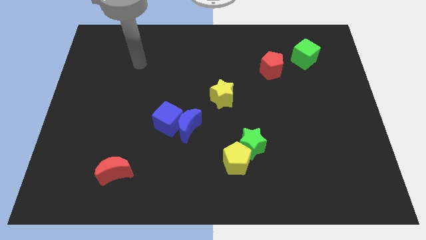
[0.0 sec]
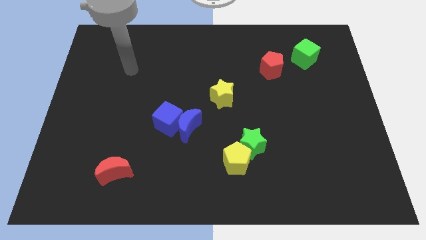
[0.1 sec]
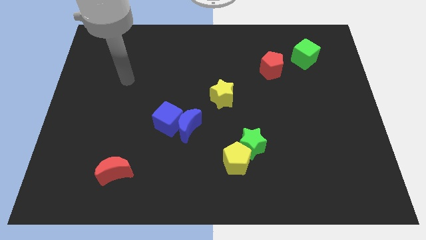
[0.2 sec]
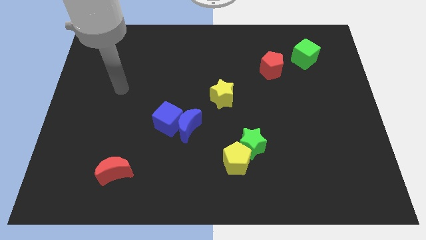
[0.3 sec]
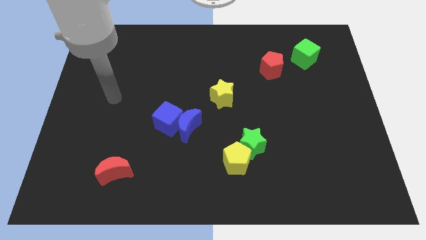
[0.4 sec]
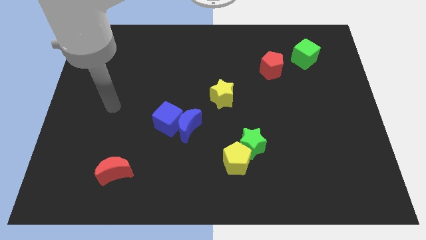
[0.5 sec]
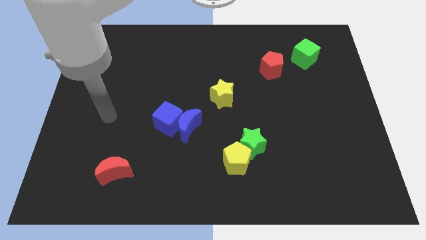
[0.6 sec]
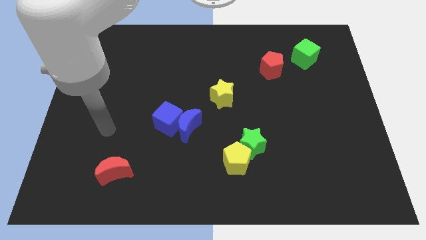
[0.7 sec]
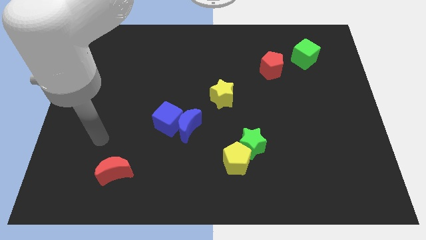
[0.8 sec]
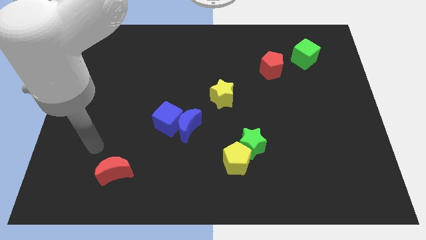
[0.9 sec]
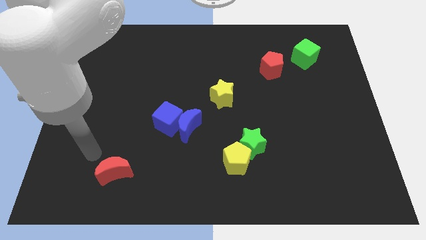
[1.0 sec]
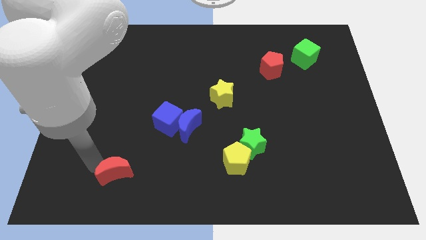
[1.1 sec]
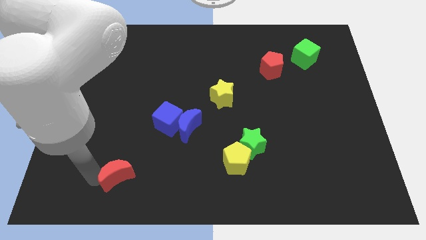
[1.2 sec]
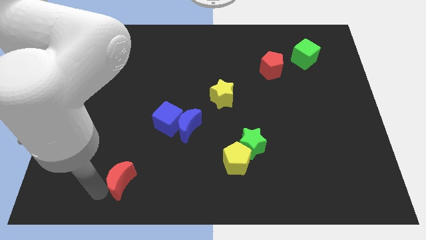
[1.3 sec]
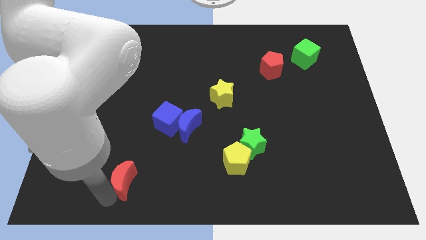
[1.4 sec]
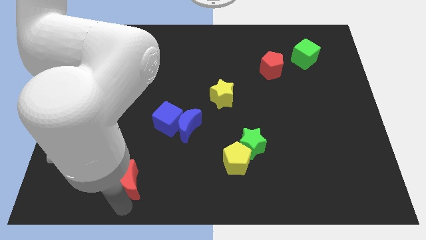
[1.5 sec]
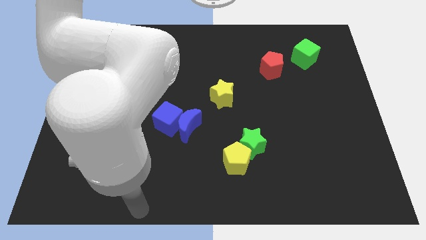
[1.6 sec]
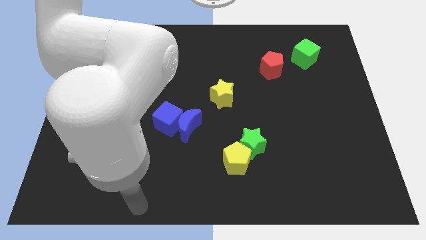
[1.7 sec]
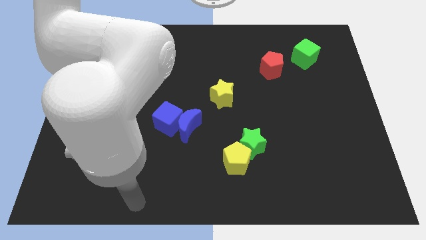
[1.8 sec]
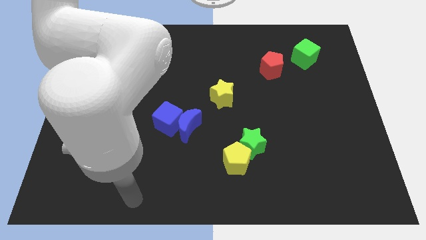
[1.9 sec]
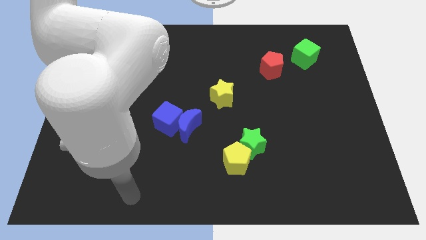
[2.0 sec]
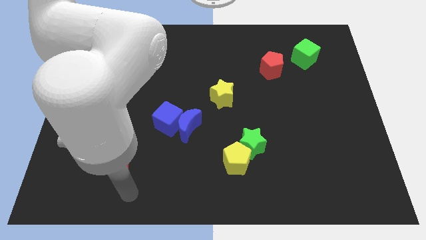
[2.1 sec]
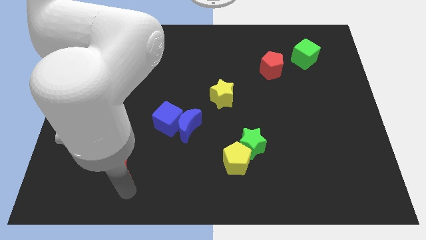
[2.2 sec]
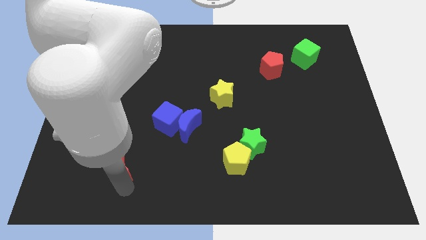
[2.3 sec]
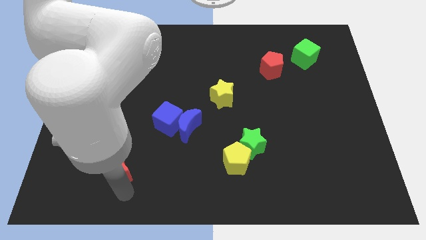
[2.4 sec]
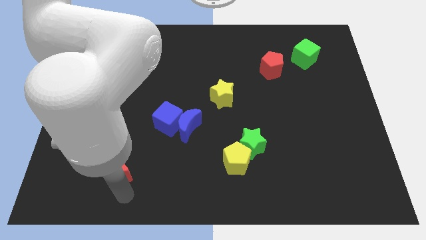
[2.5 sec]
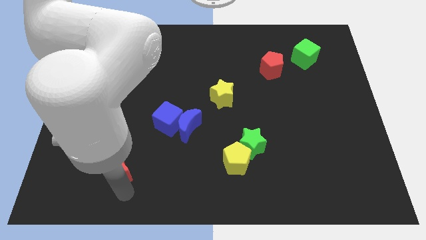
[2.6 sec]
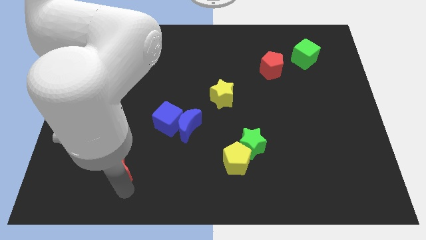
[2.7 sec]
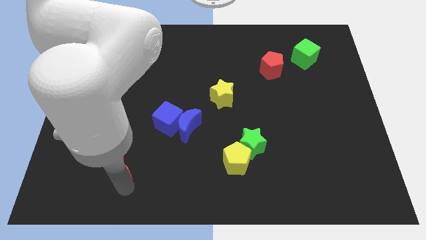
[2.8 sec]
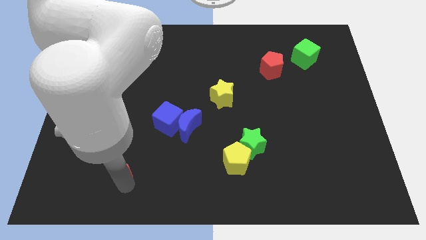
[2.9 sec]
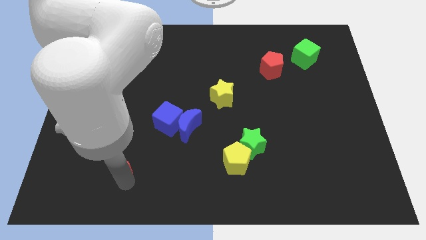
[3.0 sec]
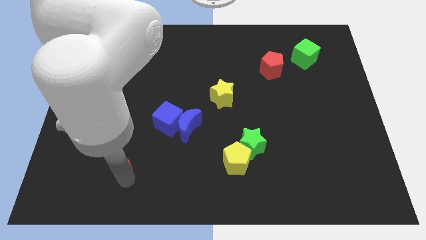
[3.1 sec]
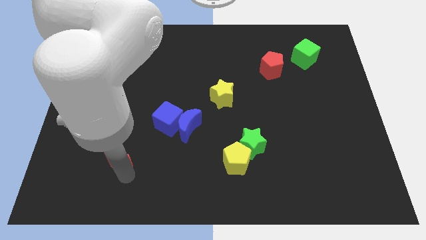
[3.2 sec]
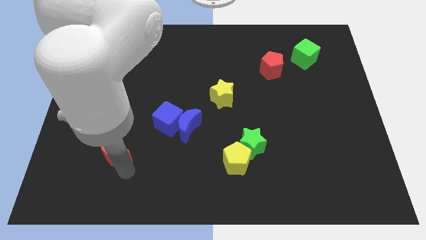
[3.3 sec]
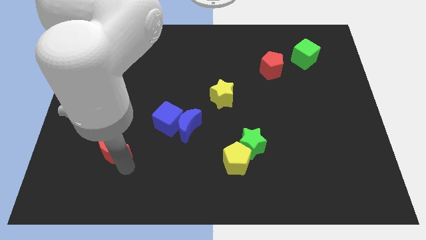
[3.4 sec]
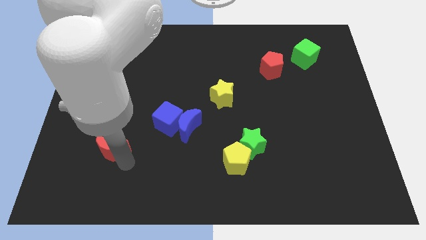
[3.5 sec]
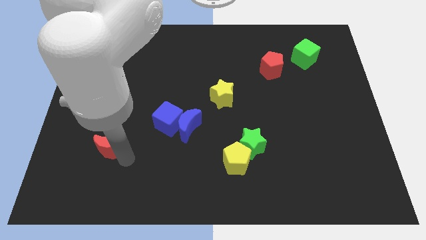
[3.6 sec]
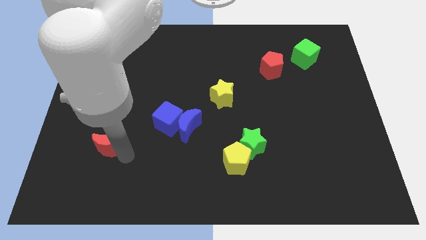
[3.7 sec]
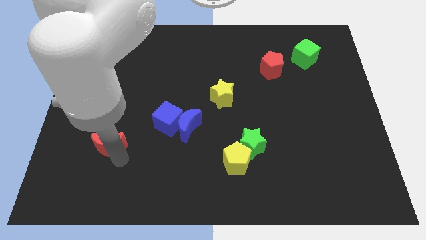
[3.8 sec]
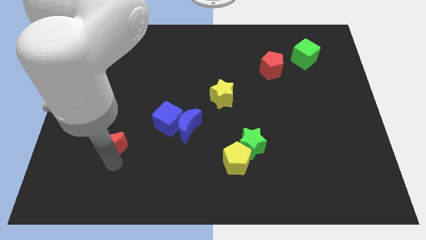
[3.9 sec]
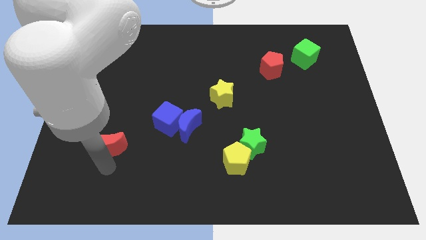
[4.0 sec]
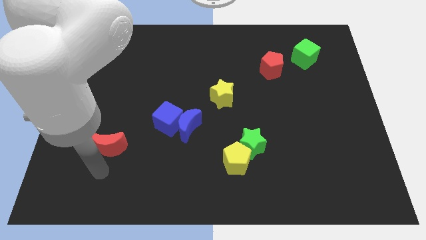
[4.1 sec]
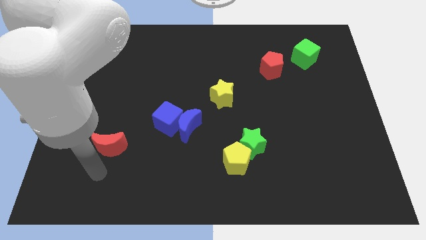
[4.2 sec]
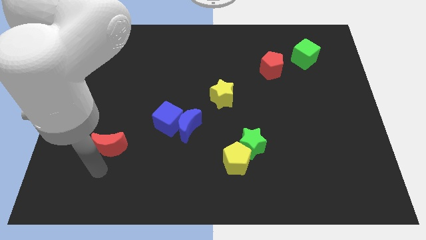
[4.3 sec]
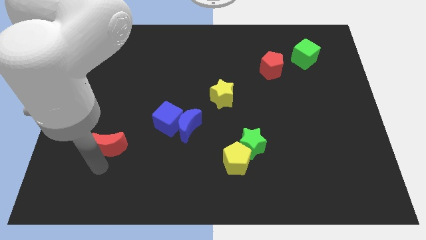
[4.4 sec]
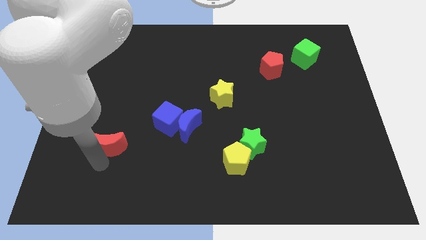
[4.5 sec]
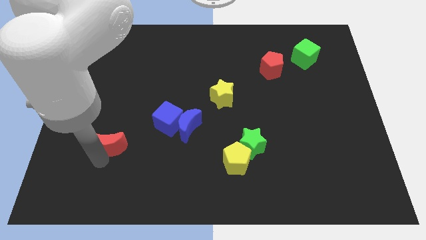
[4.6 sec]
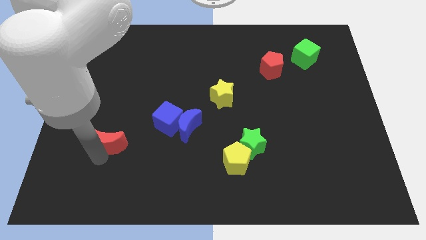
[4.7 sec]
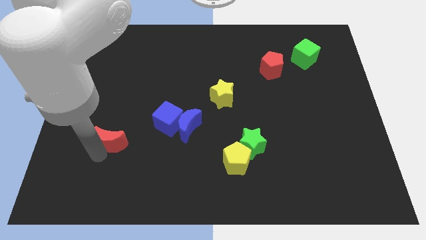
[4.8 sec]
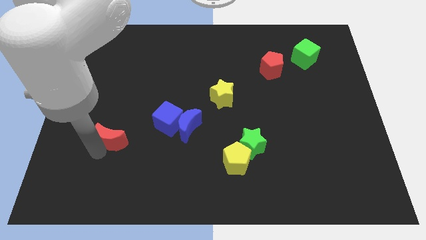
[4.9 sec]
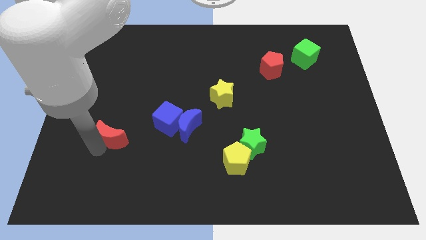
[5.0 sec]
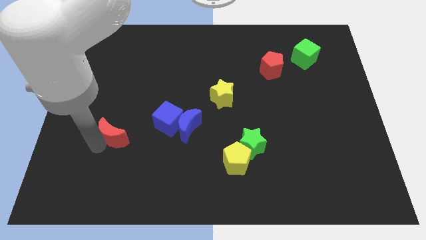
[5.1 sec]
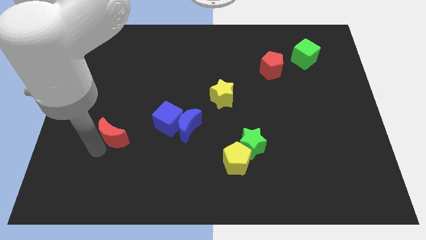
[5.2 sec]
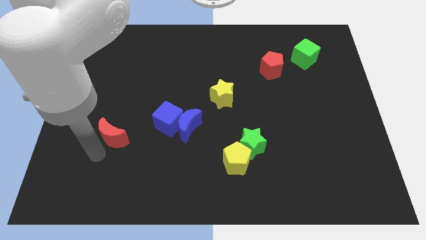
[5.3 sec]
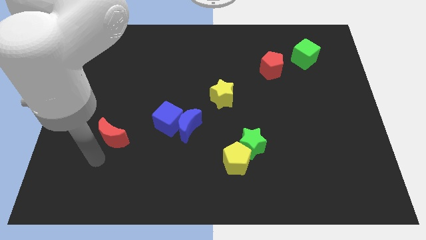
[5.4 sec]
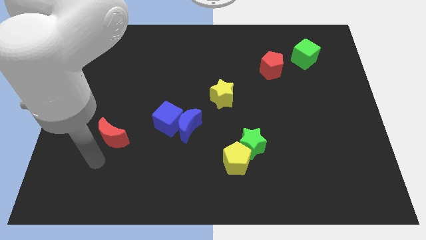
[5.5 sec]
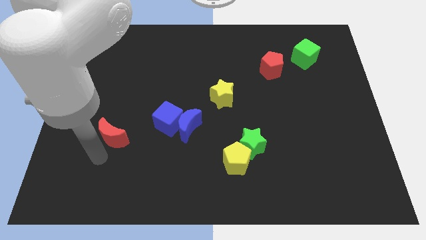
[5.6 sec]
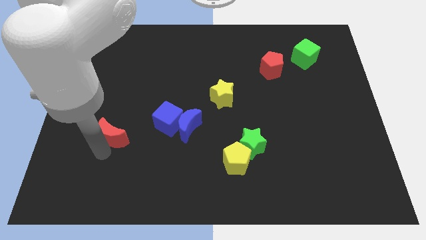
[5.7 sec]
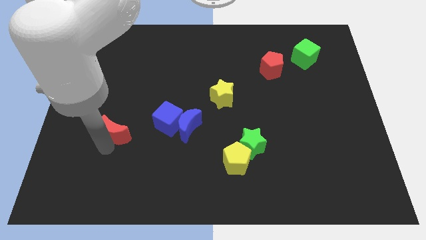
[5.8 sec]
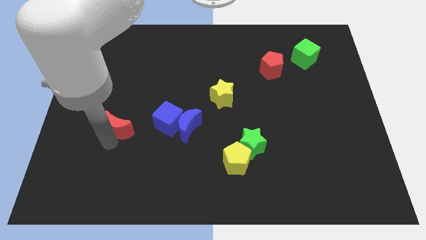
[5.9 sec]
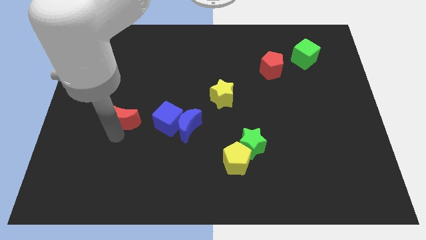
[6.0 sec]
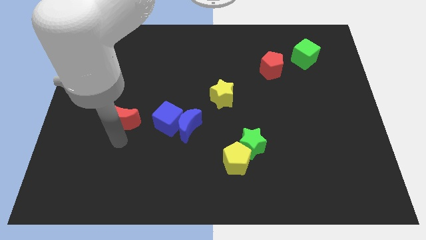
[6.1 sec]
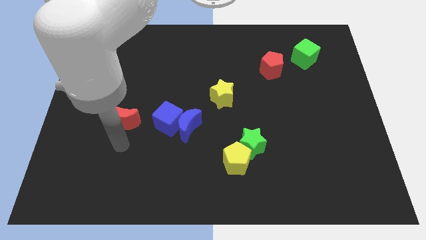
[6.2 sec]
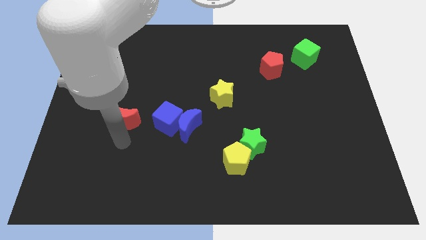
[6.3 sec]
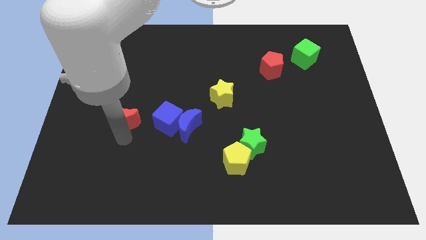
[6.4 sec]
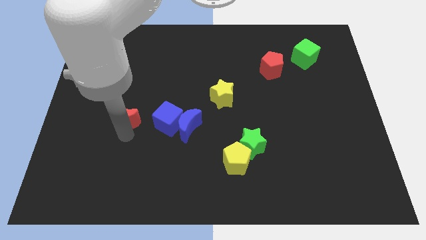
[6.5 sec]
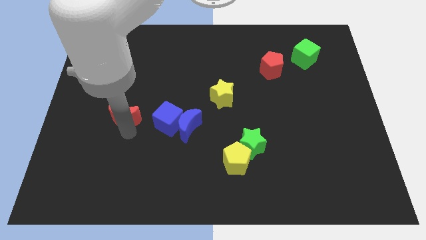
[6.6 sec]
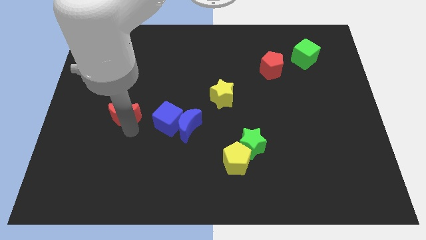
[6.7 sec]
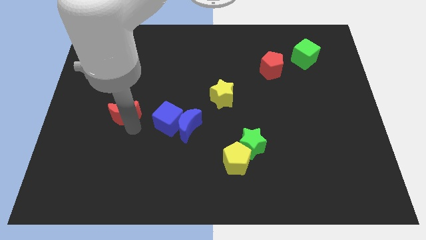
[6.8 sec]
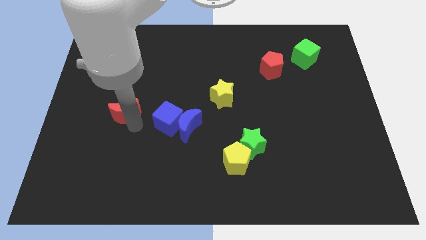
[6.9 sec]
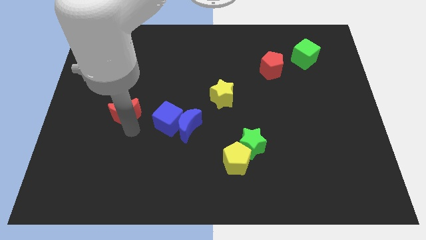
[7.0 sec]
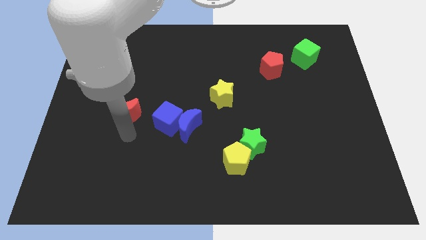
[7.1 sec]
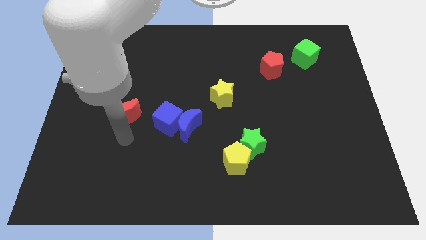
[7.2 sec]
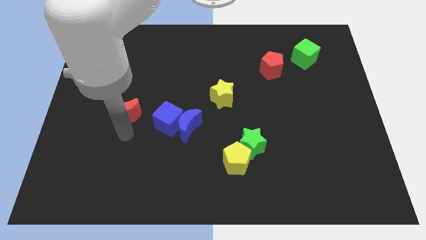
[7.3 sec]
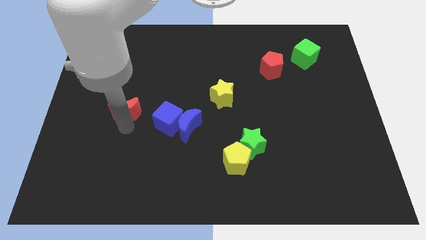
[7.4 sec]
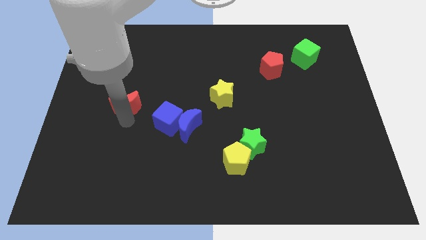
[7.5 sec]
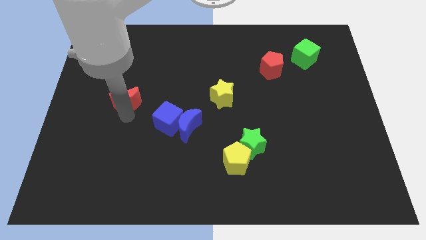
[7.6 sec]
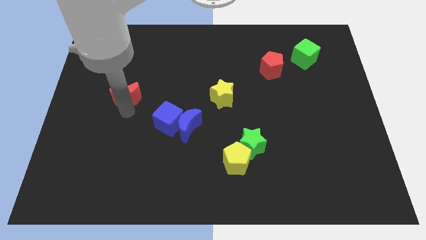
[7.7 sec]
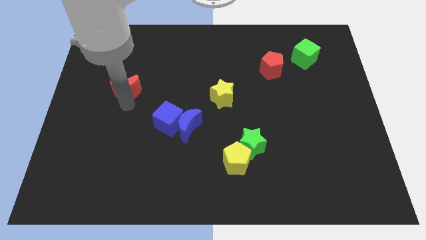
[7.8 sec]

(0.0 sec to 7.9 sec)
slide the red moon up

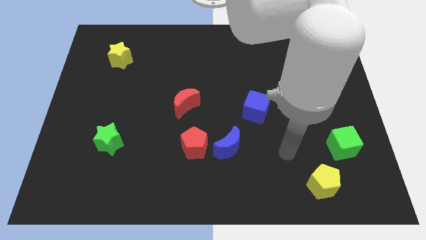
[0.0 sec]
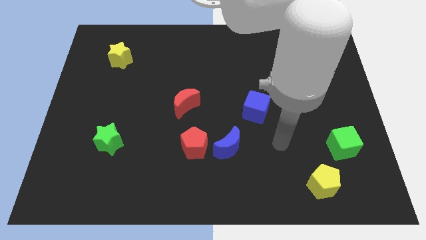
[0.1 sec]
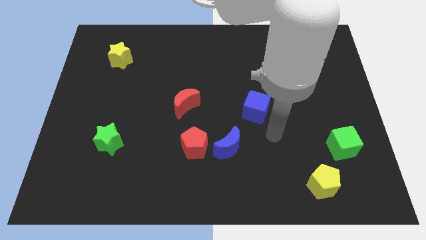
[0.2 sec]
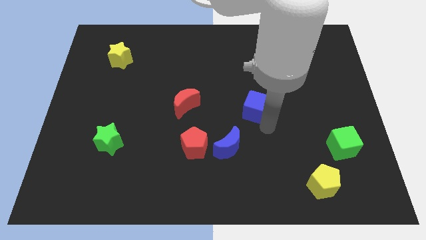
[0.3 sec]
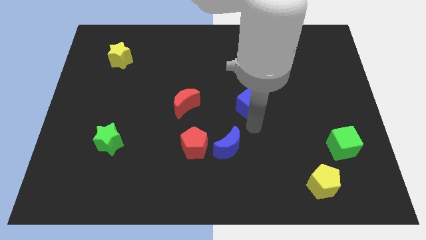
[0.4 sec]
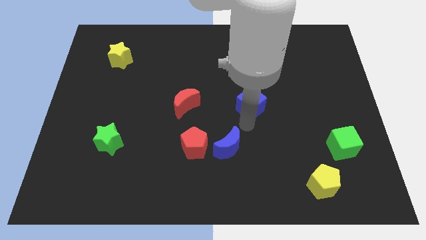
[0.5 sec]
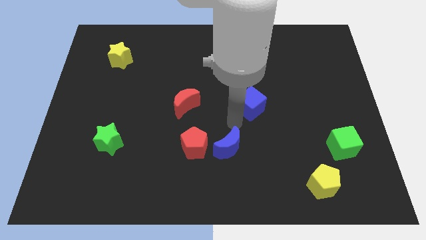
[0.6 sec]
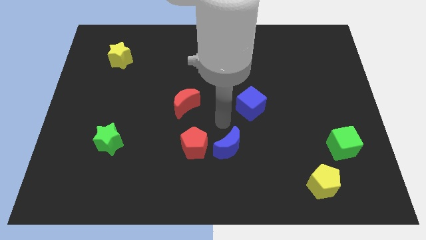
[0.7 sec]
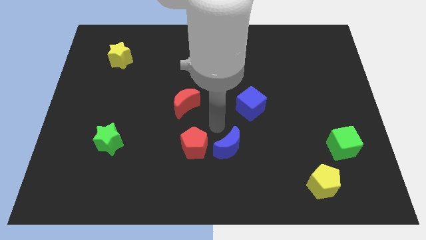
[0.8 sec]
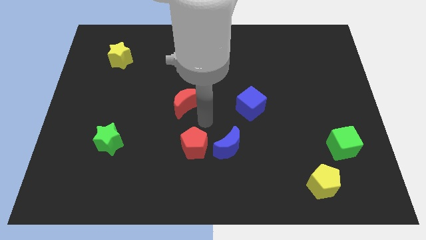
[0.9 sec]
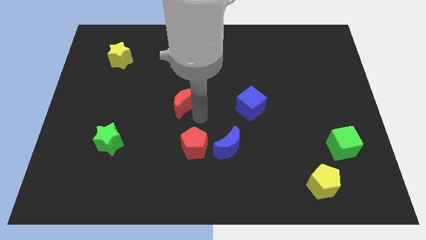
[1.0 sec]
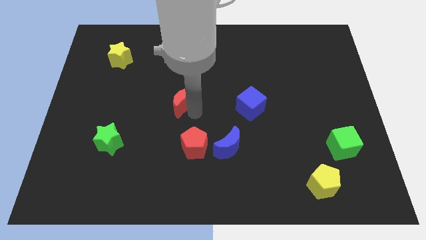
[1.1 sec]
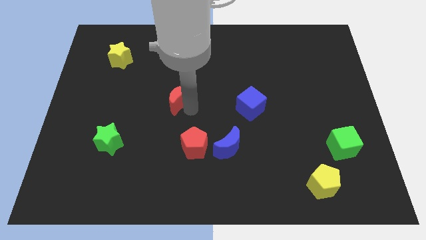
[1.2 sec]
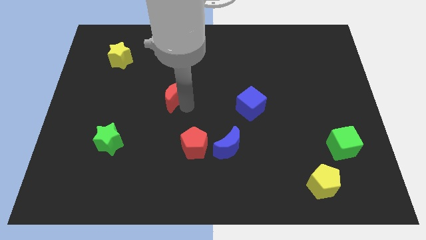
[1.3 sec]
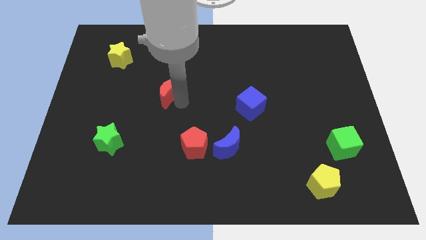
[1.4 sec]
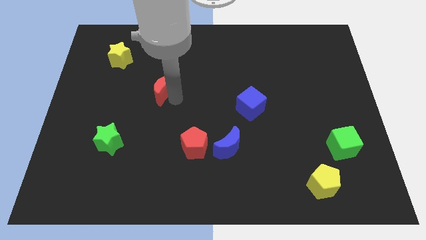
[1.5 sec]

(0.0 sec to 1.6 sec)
slide the red moon up and left diagonally slightly
